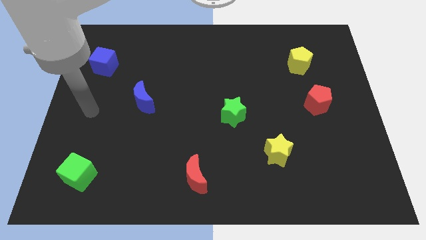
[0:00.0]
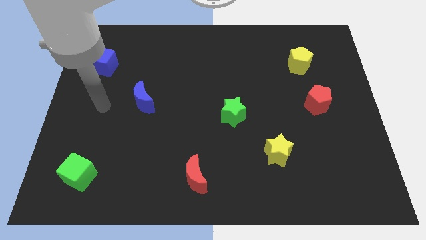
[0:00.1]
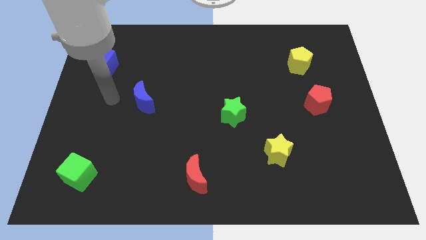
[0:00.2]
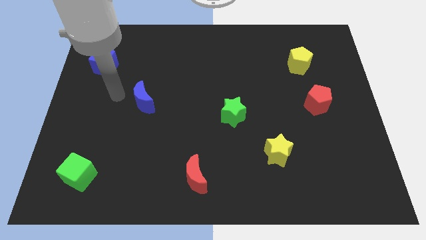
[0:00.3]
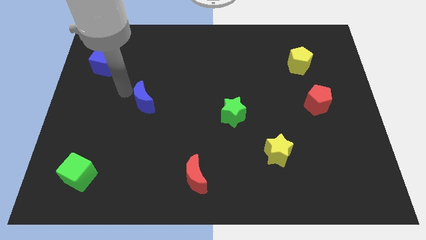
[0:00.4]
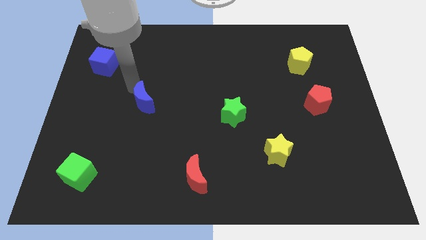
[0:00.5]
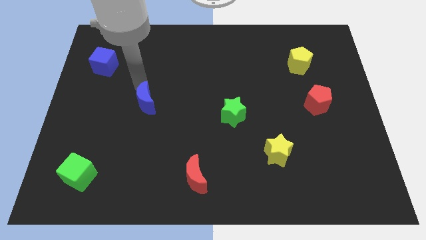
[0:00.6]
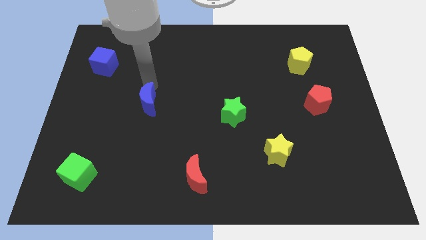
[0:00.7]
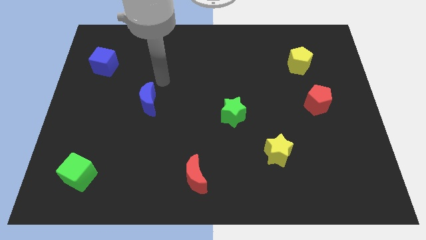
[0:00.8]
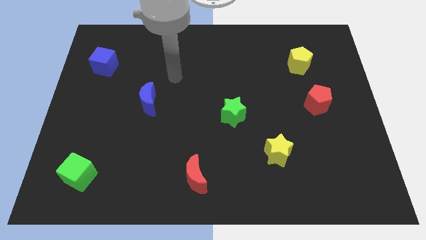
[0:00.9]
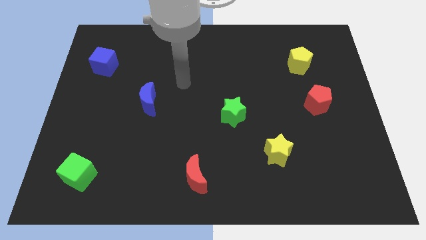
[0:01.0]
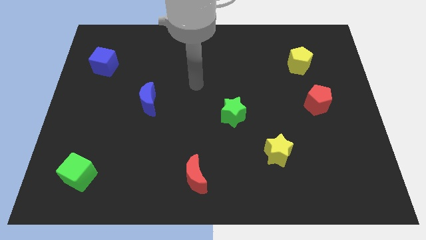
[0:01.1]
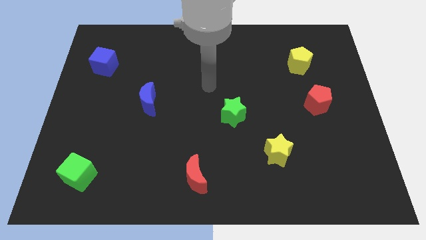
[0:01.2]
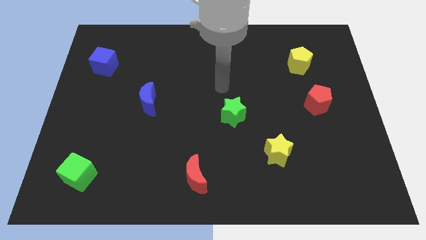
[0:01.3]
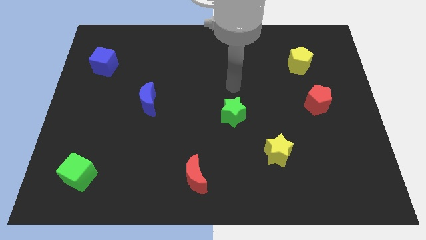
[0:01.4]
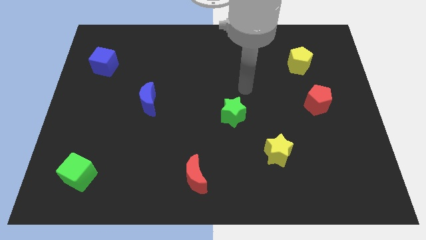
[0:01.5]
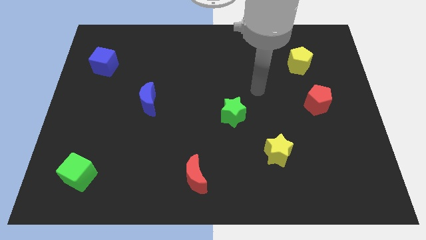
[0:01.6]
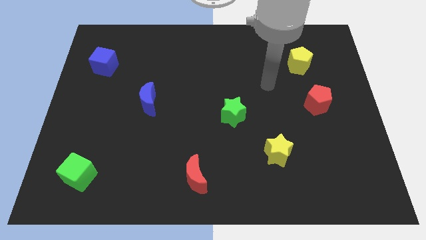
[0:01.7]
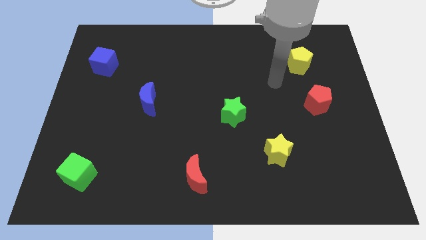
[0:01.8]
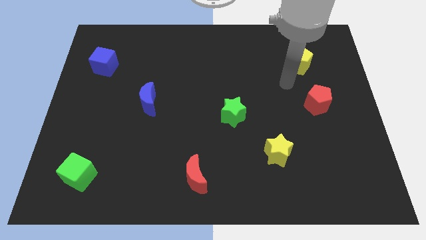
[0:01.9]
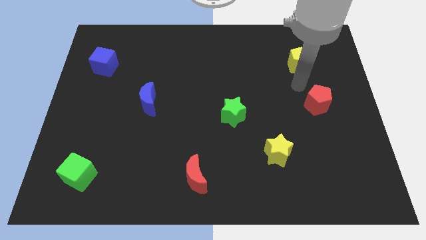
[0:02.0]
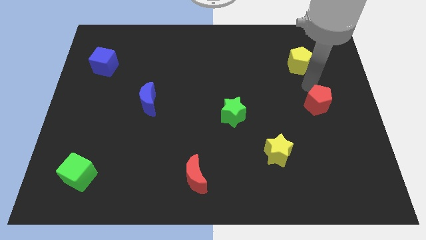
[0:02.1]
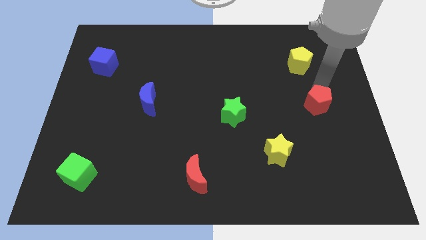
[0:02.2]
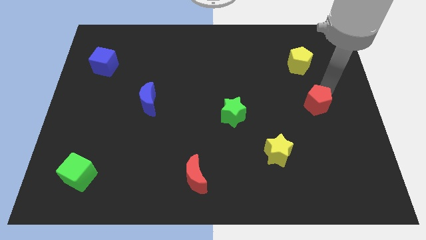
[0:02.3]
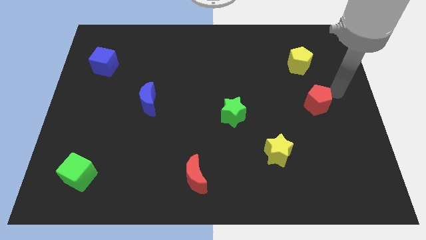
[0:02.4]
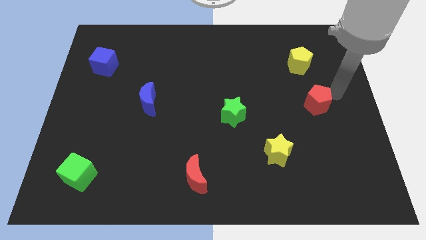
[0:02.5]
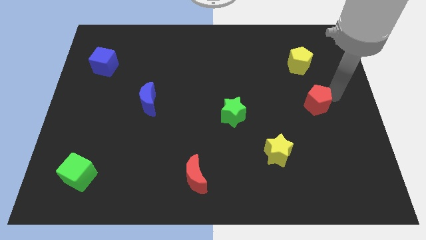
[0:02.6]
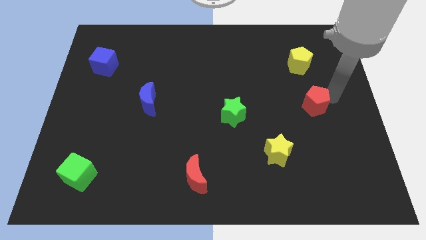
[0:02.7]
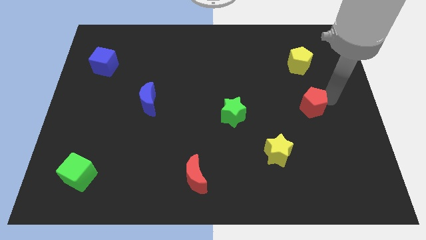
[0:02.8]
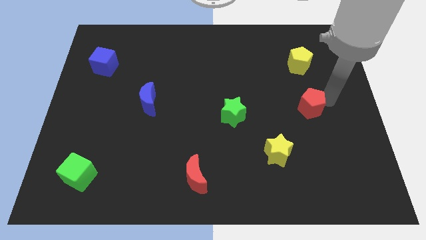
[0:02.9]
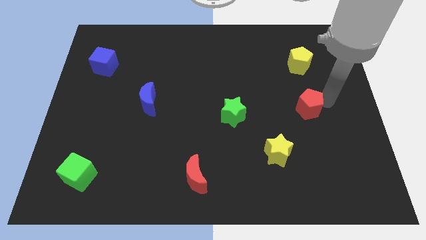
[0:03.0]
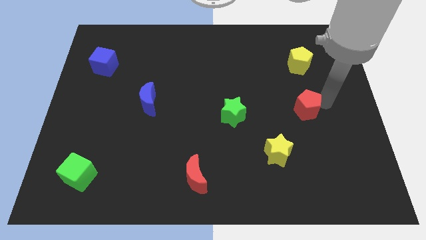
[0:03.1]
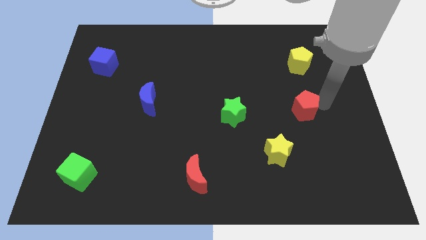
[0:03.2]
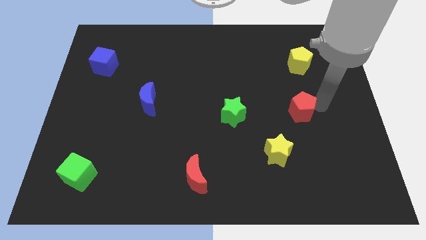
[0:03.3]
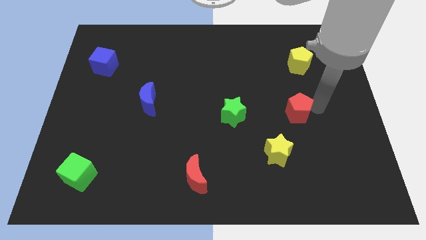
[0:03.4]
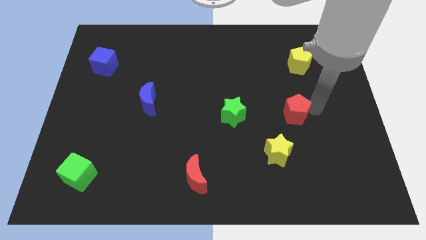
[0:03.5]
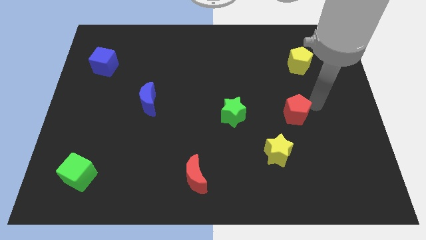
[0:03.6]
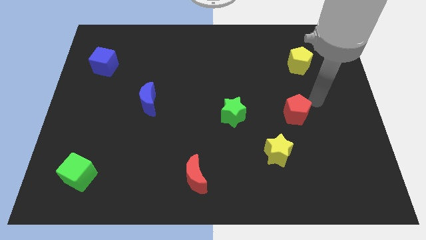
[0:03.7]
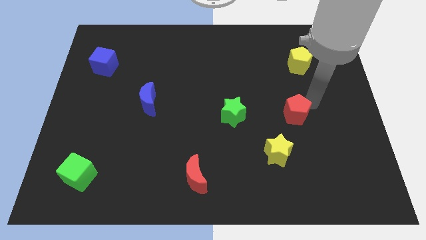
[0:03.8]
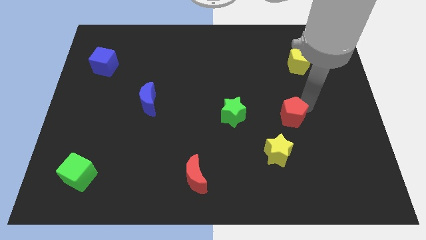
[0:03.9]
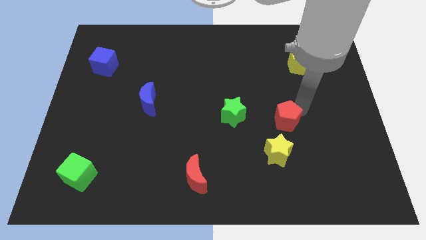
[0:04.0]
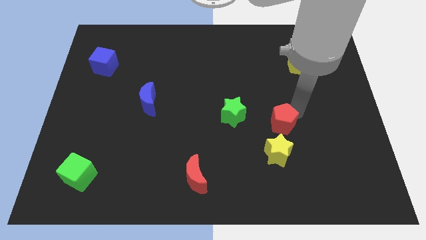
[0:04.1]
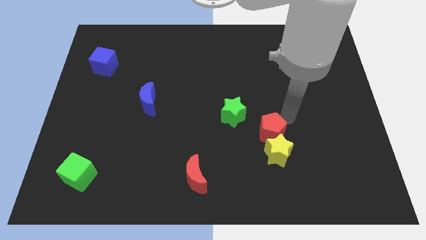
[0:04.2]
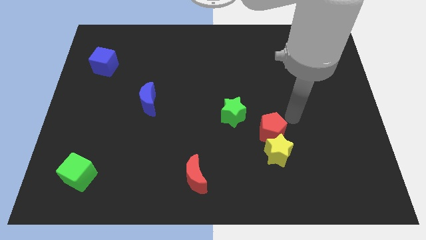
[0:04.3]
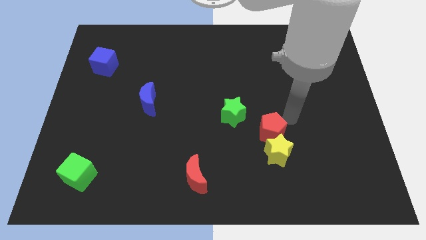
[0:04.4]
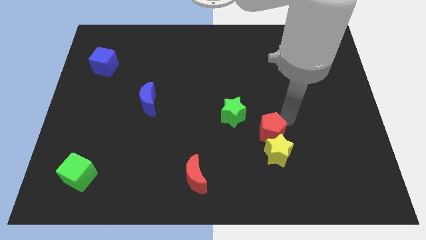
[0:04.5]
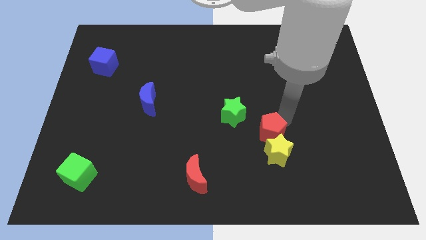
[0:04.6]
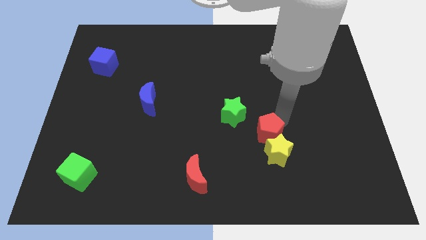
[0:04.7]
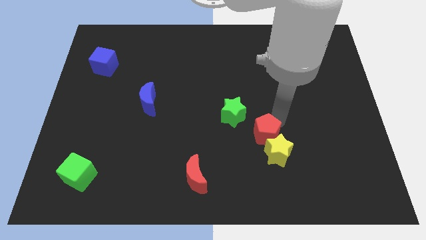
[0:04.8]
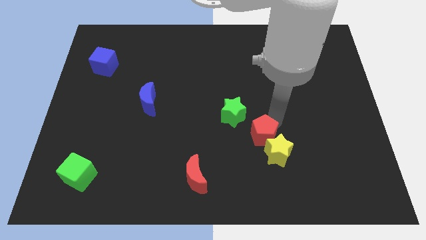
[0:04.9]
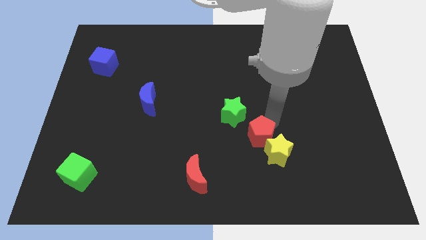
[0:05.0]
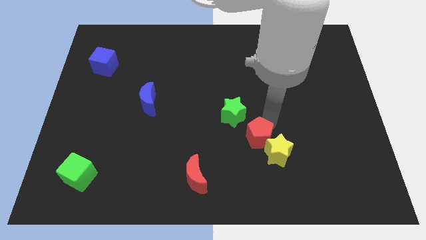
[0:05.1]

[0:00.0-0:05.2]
put the red pentagon just left of the yellow star

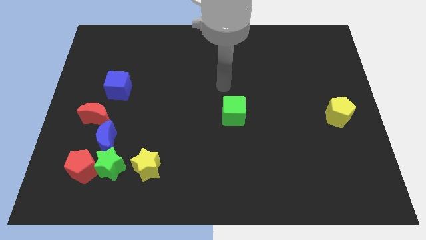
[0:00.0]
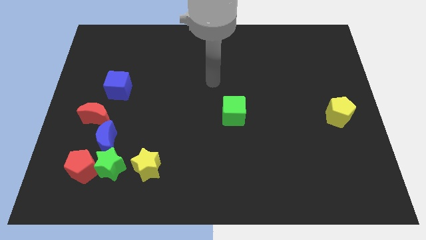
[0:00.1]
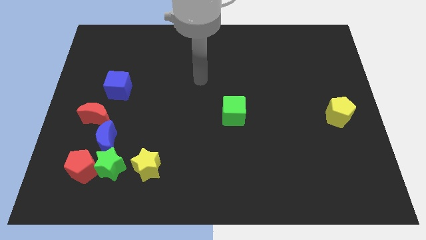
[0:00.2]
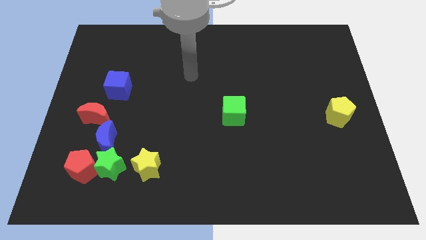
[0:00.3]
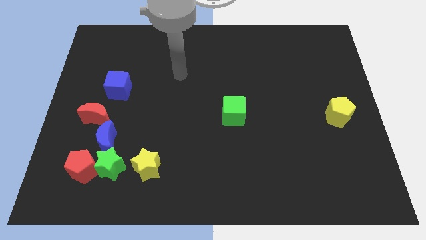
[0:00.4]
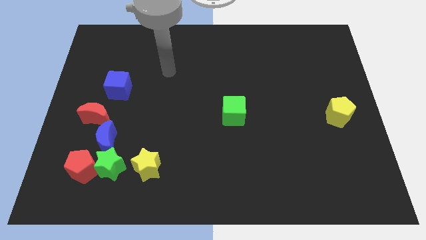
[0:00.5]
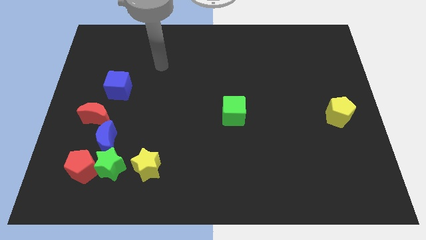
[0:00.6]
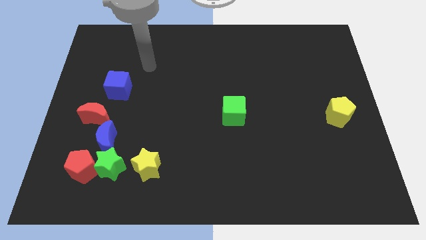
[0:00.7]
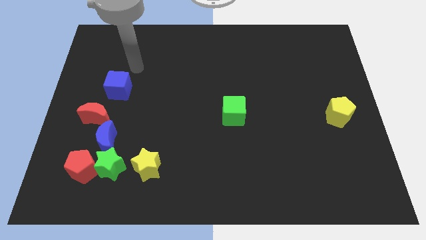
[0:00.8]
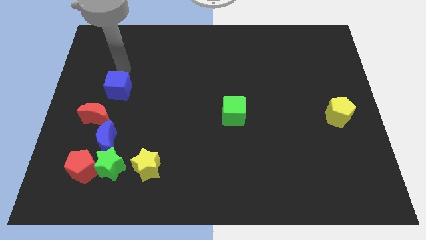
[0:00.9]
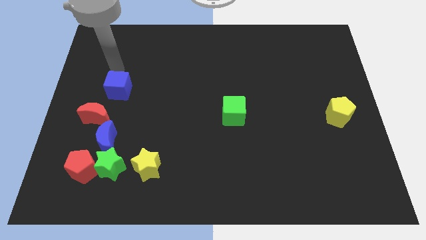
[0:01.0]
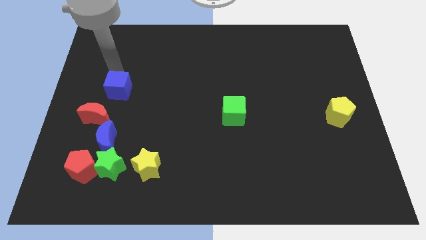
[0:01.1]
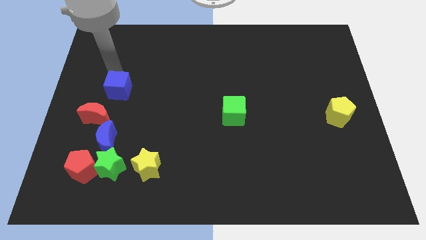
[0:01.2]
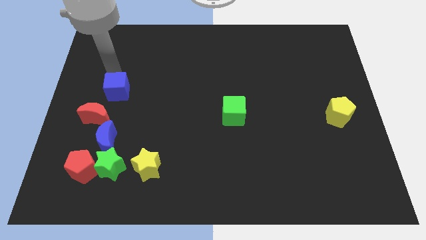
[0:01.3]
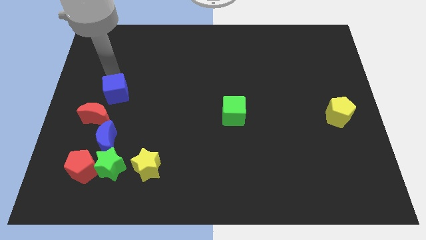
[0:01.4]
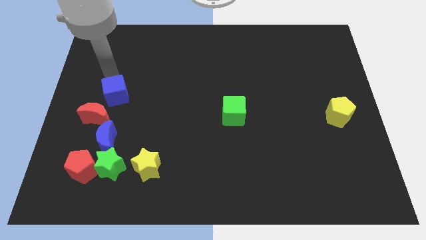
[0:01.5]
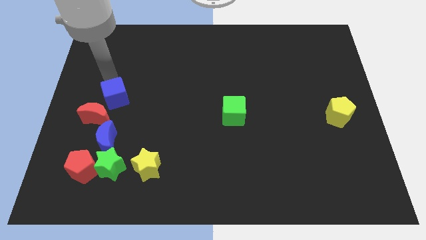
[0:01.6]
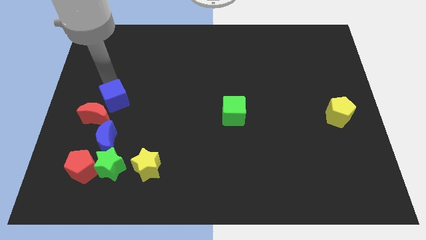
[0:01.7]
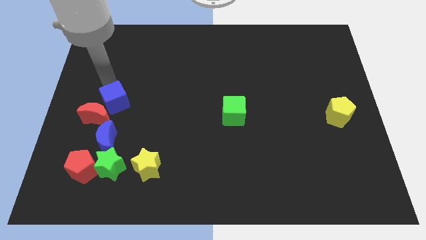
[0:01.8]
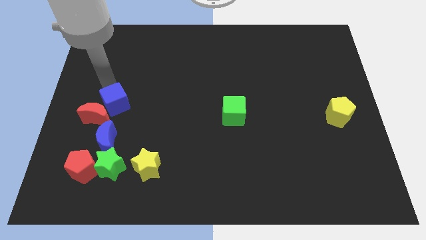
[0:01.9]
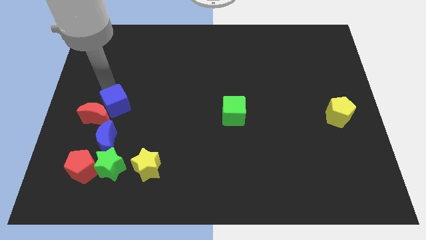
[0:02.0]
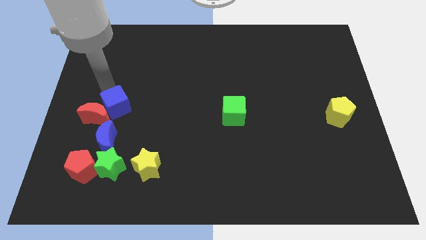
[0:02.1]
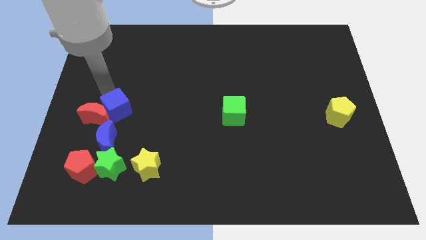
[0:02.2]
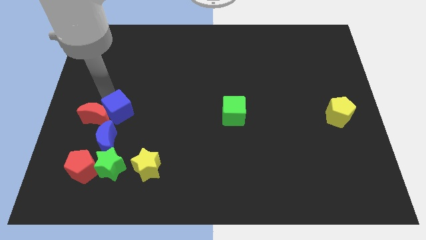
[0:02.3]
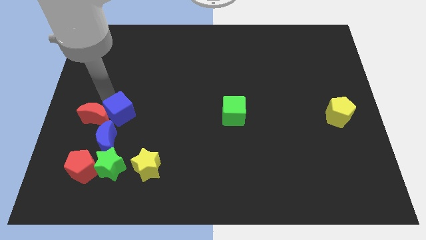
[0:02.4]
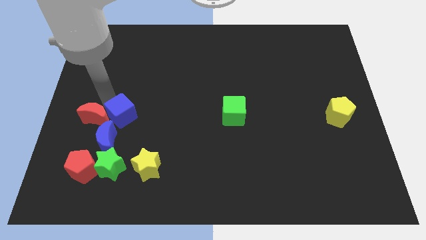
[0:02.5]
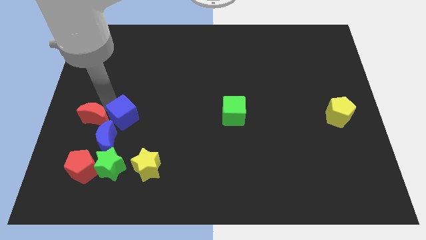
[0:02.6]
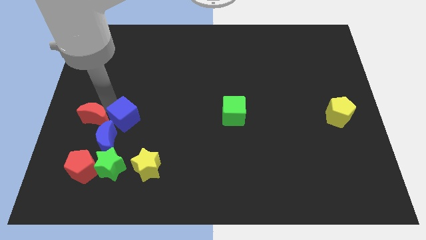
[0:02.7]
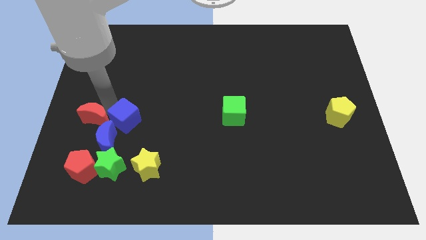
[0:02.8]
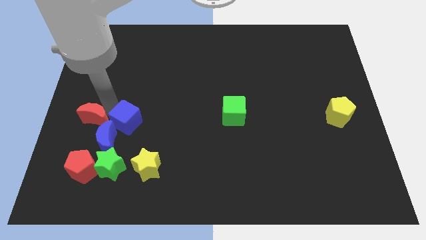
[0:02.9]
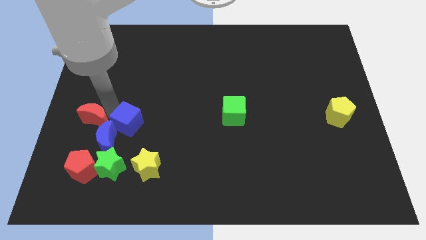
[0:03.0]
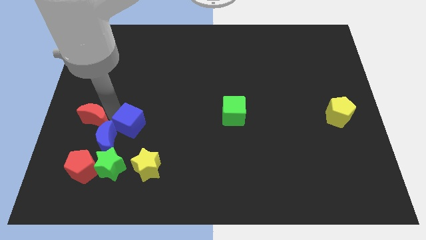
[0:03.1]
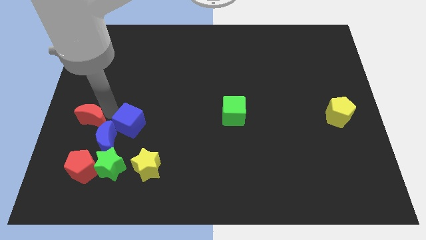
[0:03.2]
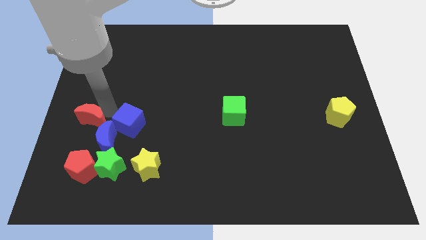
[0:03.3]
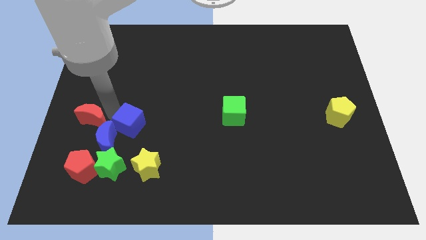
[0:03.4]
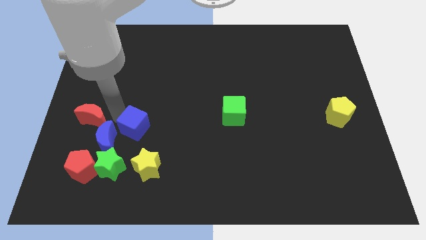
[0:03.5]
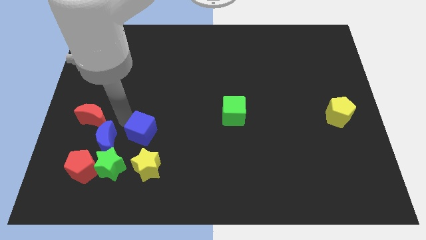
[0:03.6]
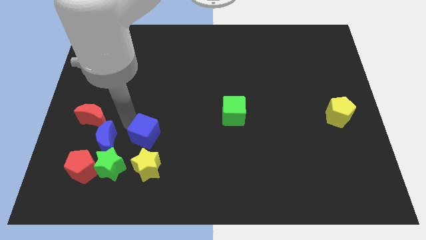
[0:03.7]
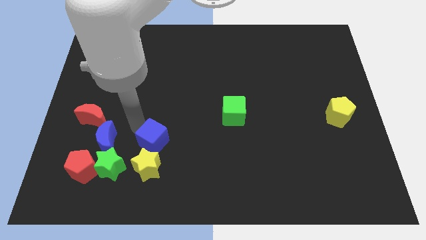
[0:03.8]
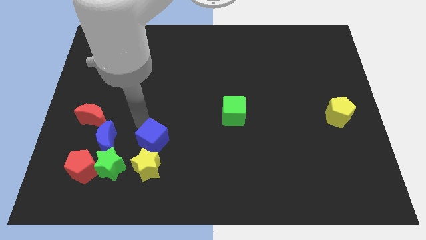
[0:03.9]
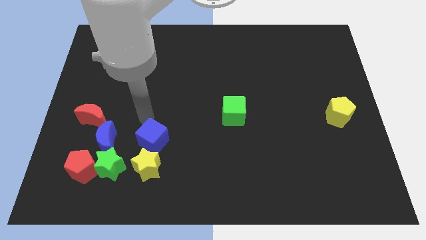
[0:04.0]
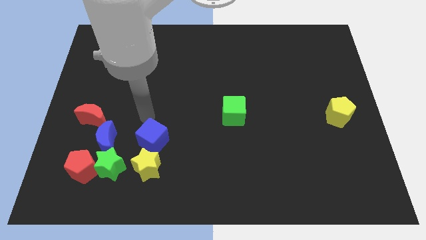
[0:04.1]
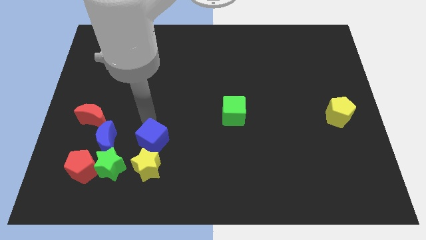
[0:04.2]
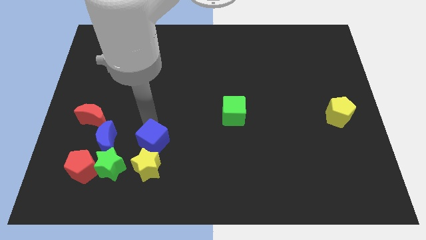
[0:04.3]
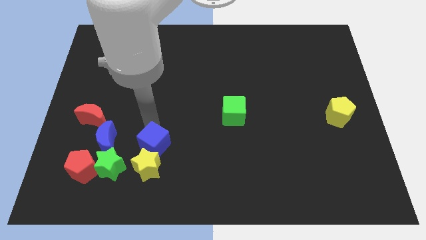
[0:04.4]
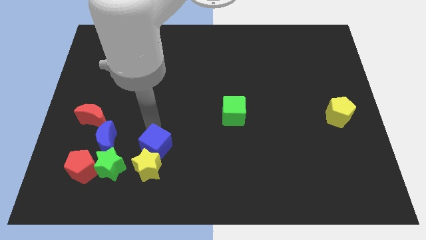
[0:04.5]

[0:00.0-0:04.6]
push the blue cube just right of the green star
